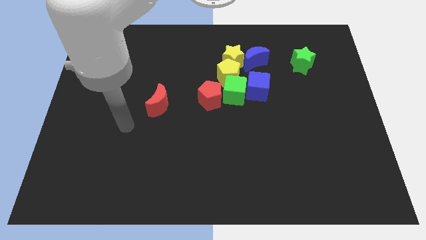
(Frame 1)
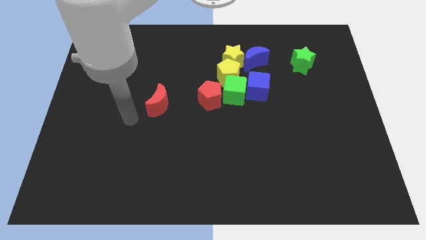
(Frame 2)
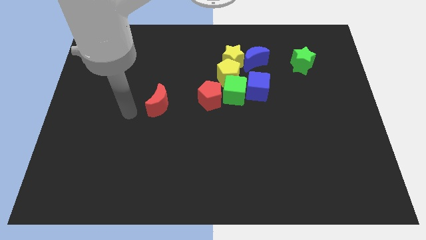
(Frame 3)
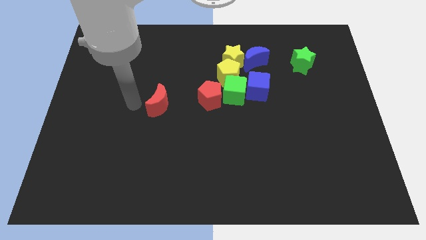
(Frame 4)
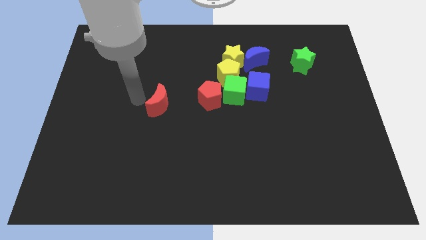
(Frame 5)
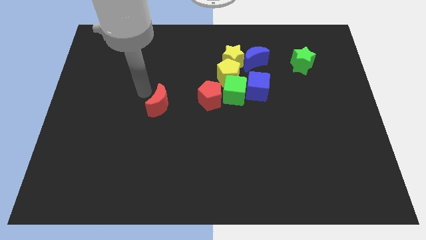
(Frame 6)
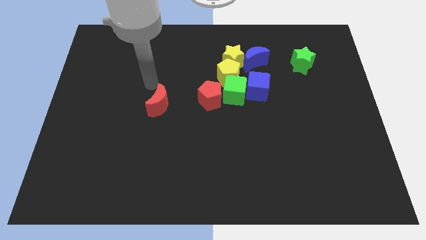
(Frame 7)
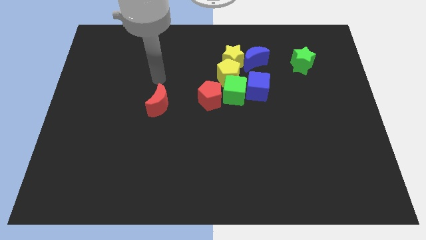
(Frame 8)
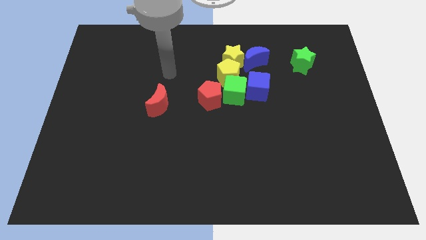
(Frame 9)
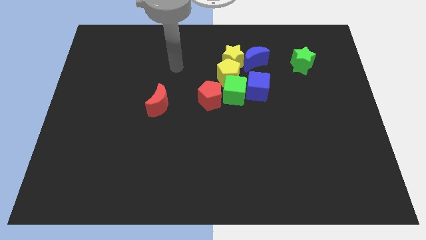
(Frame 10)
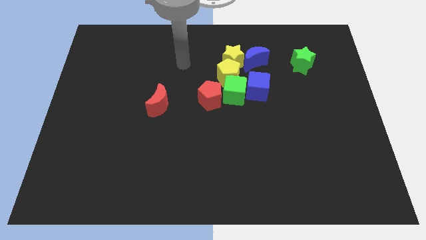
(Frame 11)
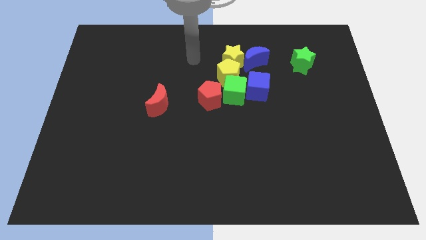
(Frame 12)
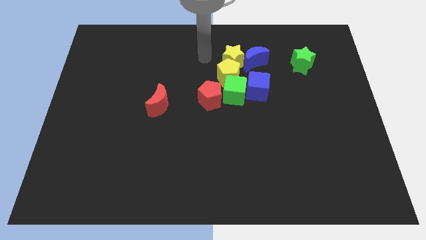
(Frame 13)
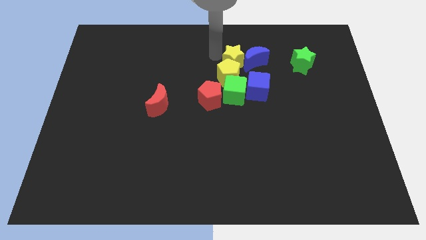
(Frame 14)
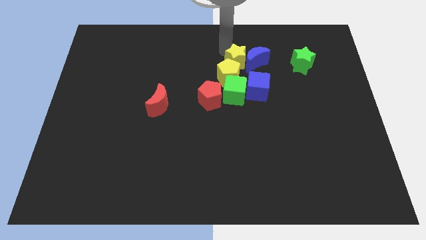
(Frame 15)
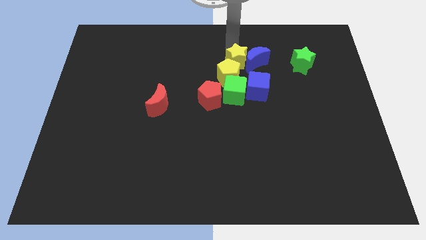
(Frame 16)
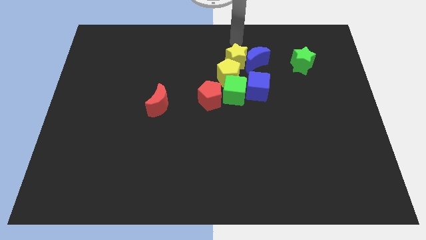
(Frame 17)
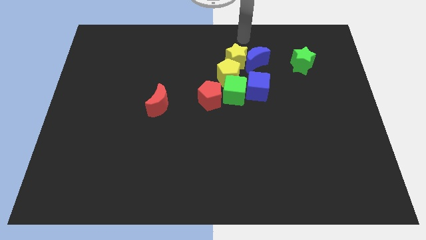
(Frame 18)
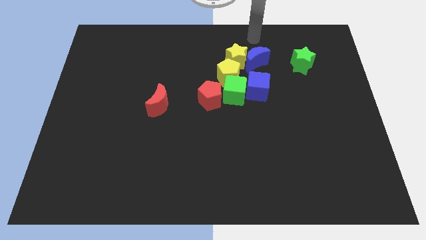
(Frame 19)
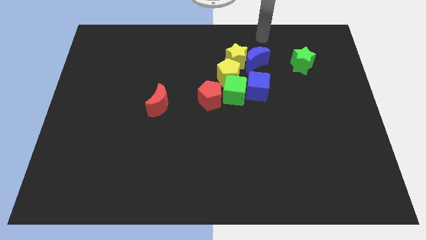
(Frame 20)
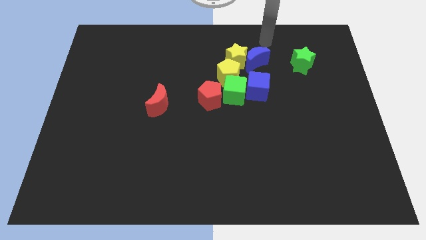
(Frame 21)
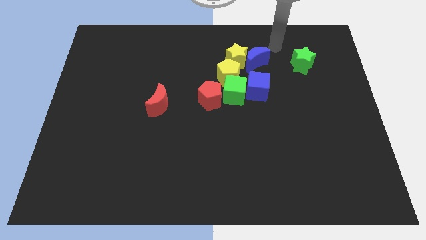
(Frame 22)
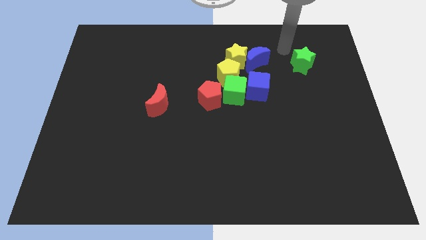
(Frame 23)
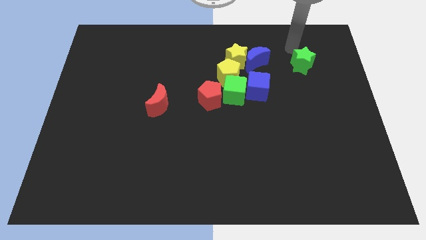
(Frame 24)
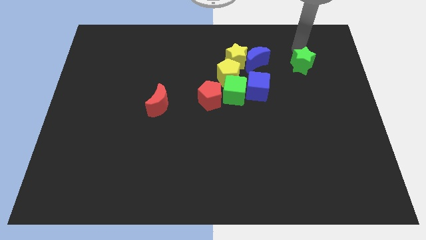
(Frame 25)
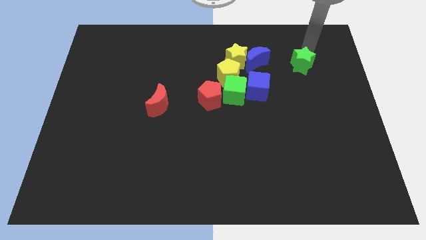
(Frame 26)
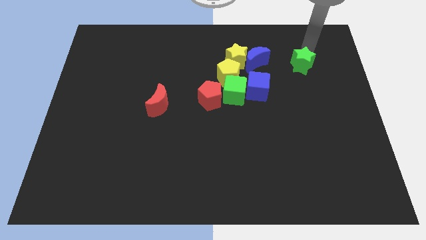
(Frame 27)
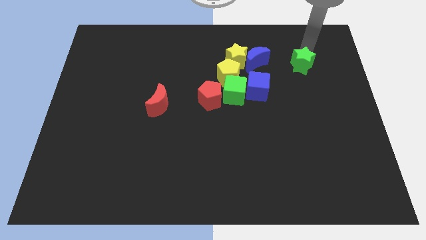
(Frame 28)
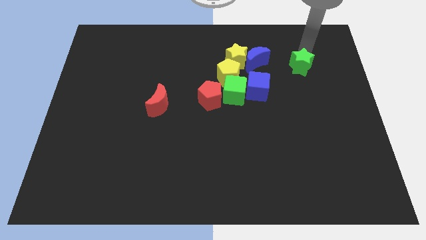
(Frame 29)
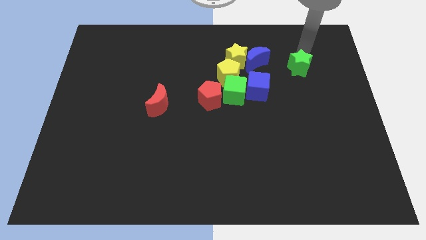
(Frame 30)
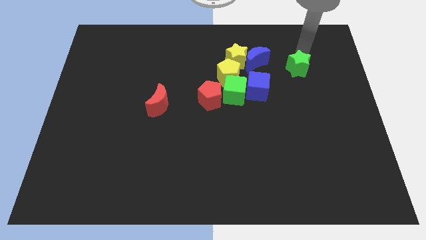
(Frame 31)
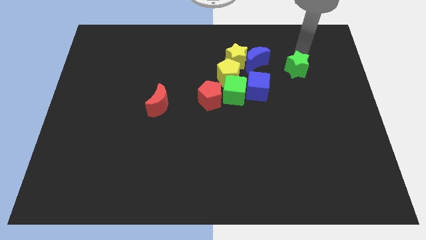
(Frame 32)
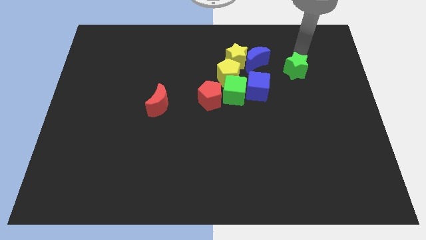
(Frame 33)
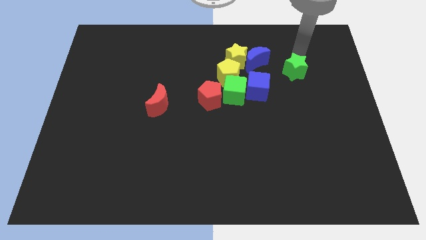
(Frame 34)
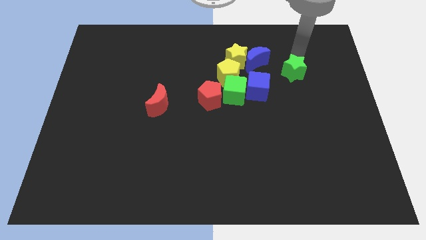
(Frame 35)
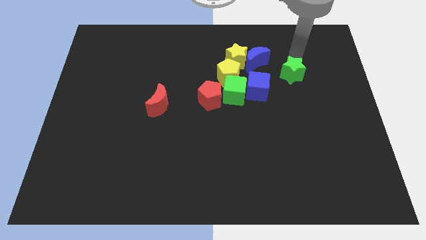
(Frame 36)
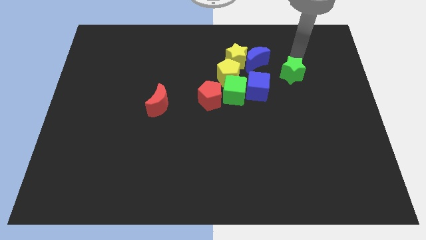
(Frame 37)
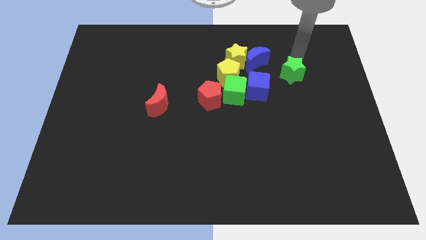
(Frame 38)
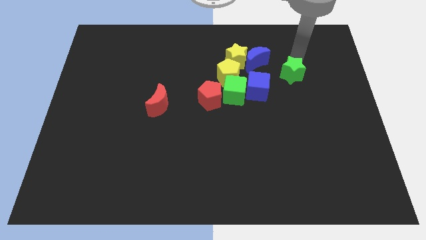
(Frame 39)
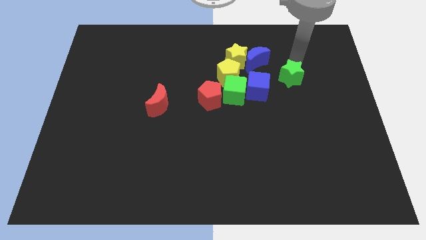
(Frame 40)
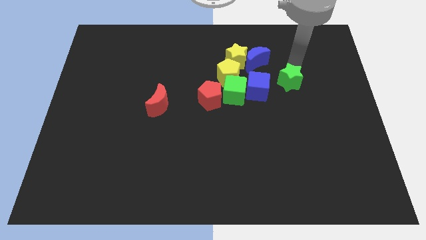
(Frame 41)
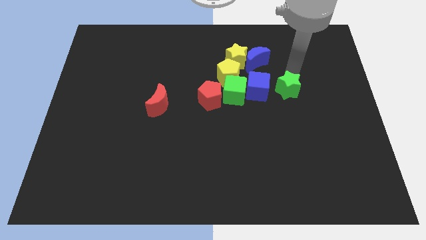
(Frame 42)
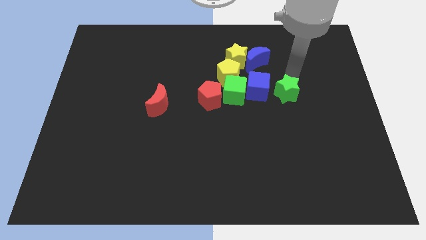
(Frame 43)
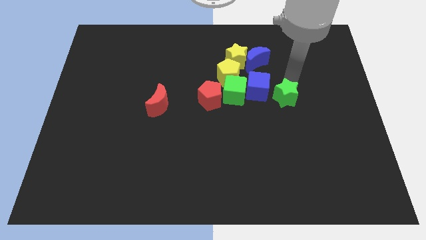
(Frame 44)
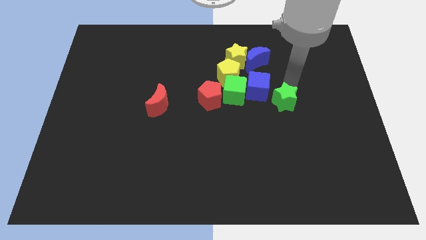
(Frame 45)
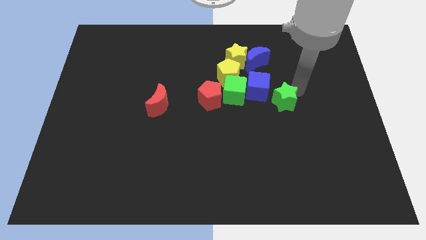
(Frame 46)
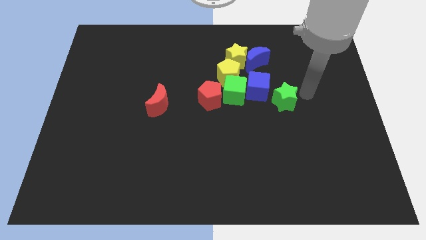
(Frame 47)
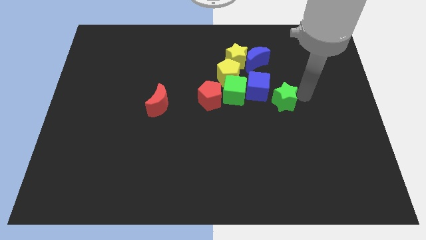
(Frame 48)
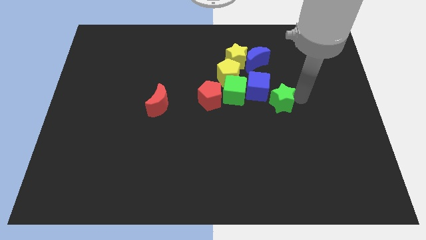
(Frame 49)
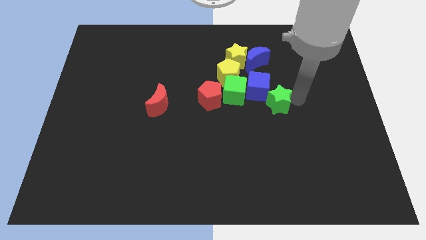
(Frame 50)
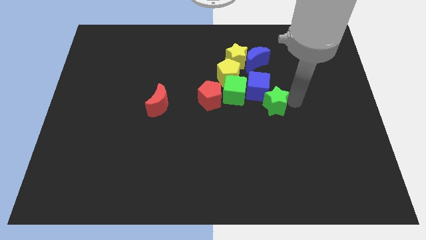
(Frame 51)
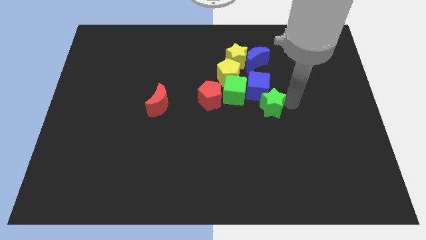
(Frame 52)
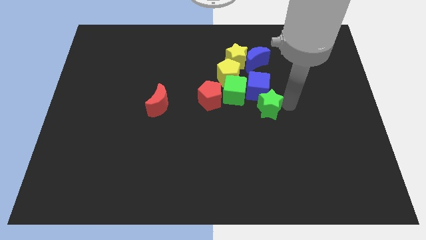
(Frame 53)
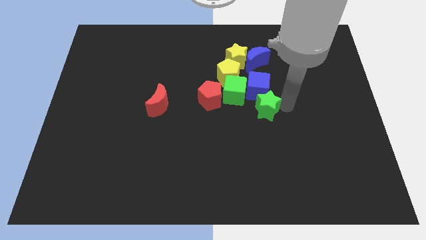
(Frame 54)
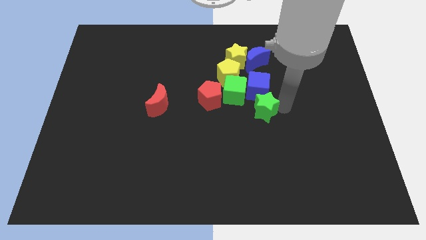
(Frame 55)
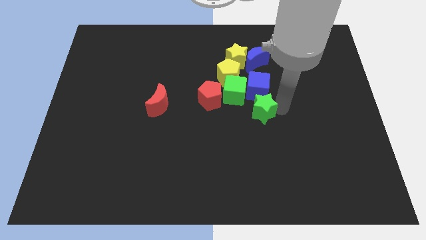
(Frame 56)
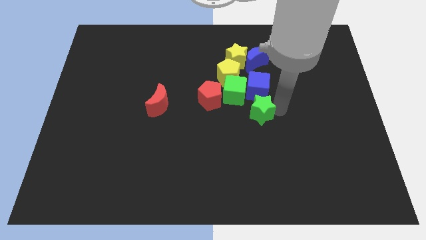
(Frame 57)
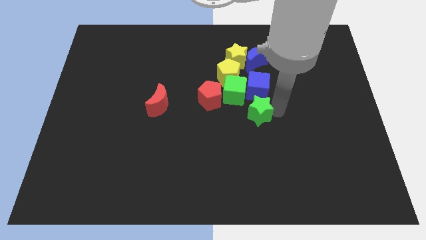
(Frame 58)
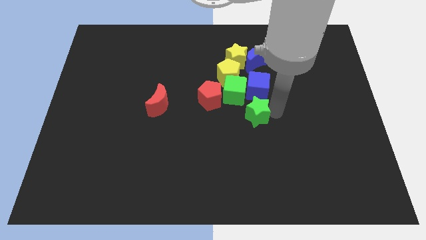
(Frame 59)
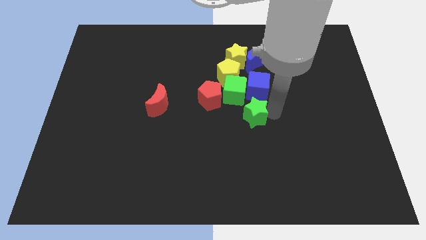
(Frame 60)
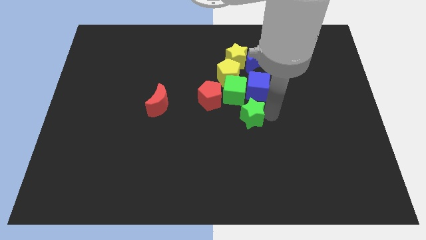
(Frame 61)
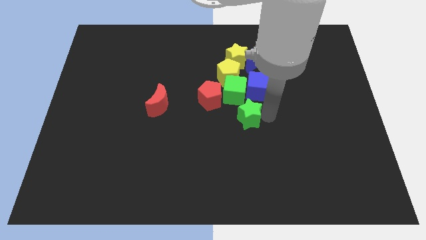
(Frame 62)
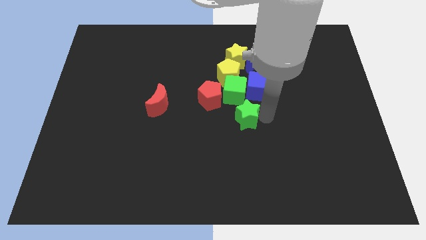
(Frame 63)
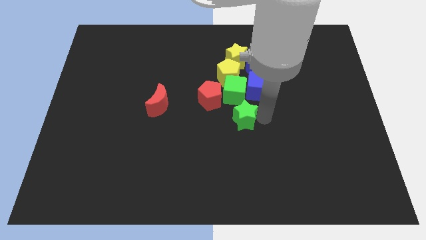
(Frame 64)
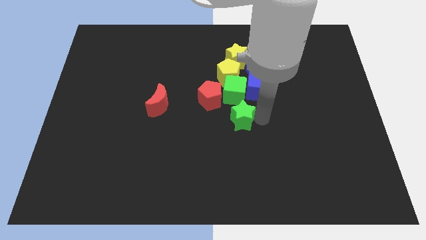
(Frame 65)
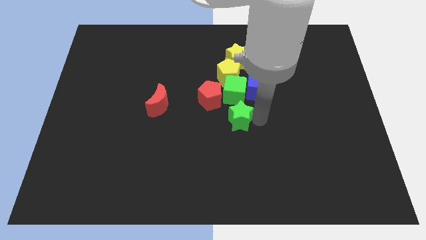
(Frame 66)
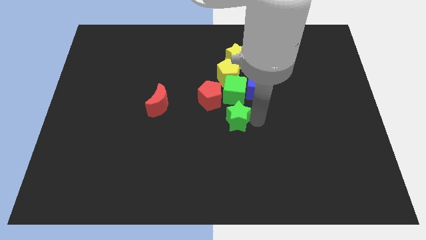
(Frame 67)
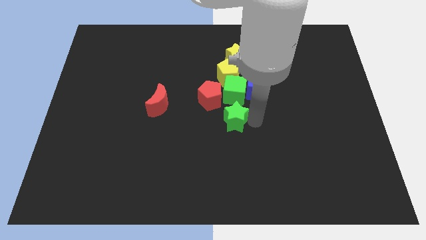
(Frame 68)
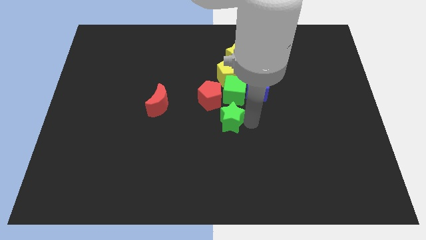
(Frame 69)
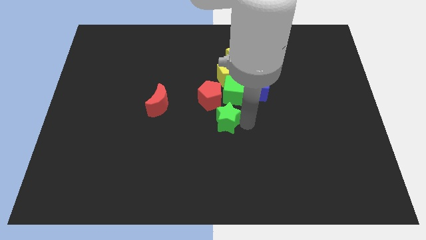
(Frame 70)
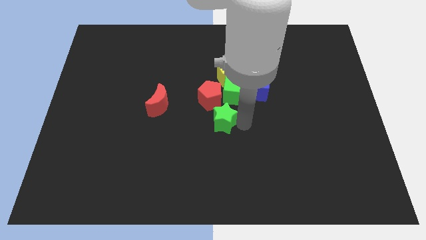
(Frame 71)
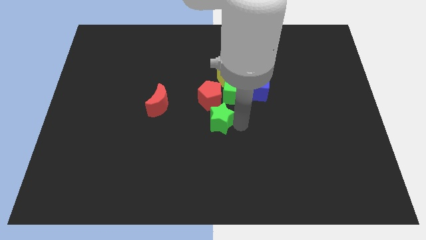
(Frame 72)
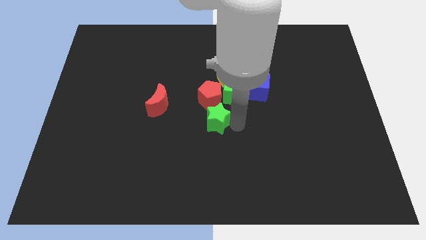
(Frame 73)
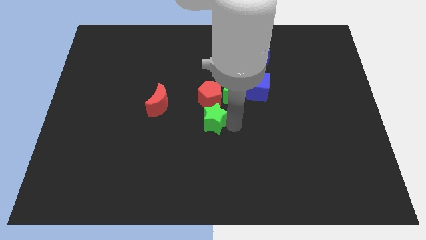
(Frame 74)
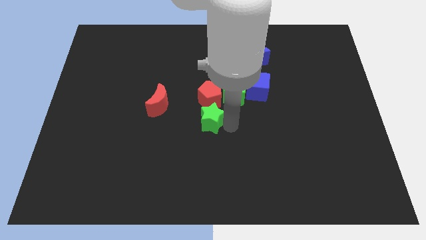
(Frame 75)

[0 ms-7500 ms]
slide the green star towards the red pentagon

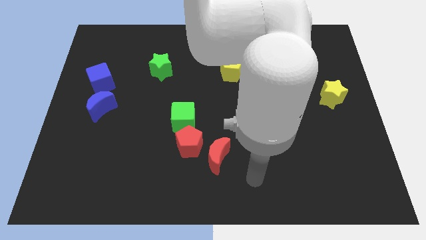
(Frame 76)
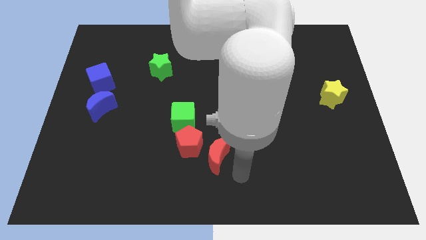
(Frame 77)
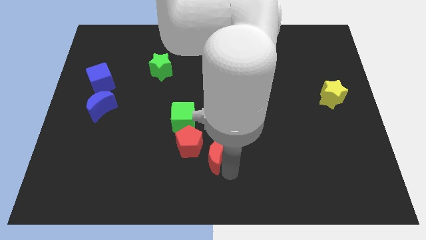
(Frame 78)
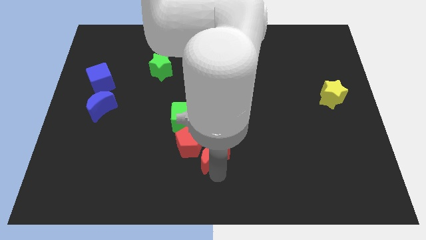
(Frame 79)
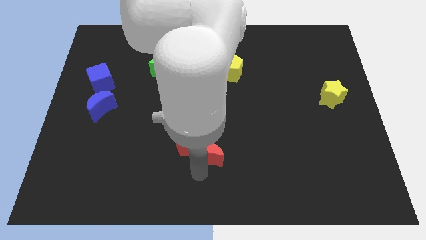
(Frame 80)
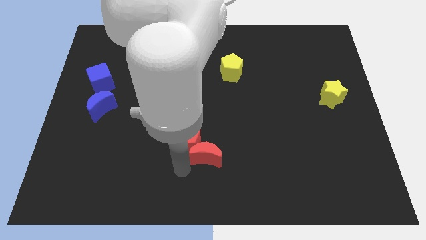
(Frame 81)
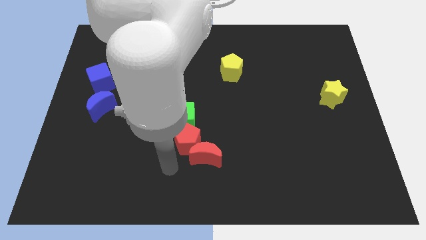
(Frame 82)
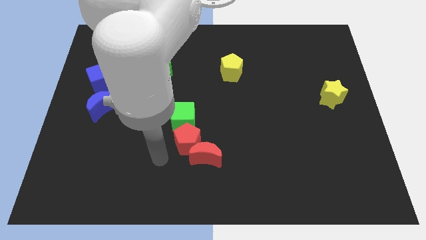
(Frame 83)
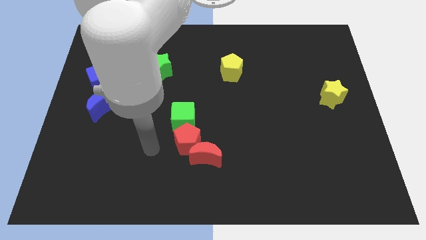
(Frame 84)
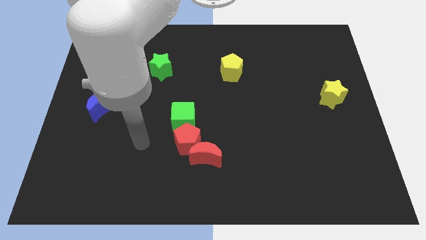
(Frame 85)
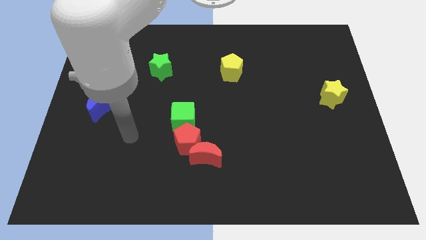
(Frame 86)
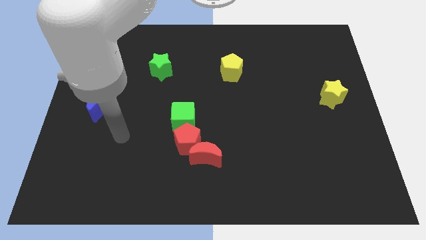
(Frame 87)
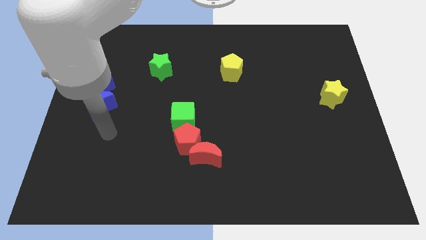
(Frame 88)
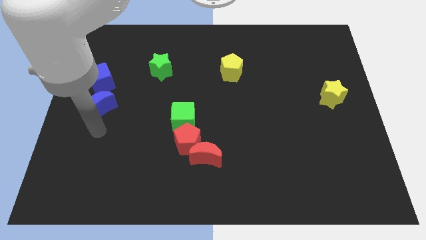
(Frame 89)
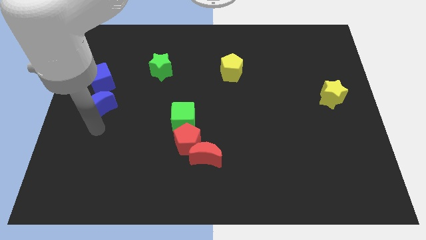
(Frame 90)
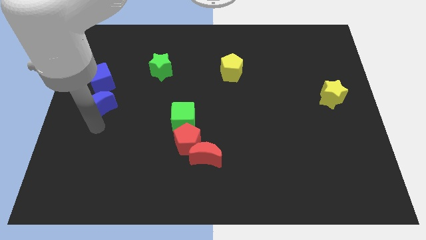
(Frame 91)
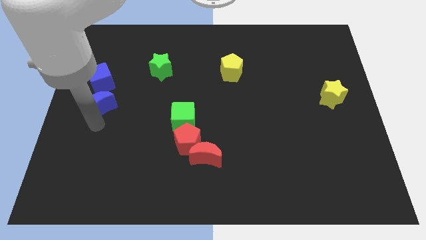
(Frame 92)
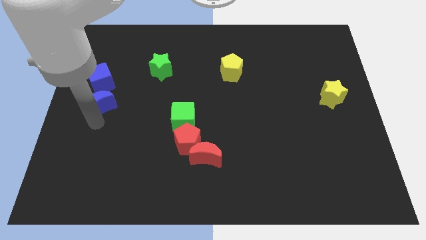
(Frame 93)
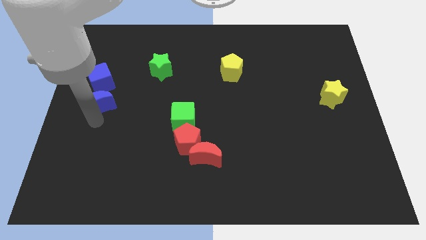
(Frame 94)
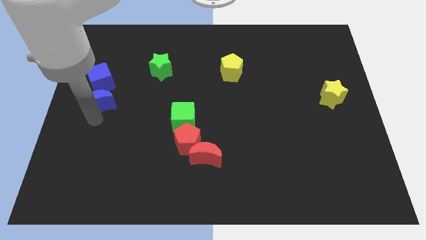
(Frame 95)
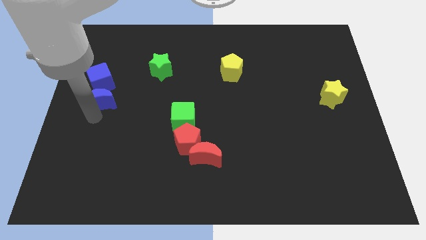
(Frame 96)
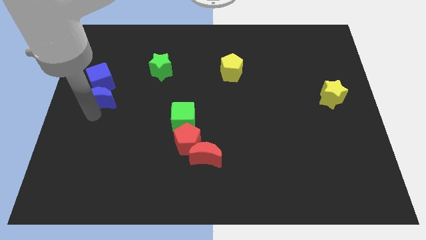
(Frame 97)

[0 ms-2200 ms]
move the blue moon towards the blue cube
